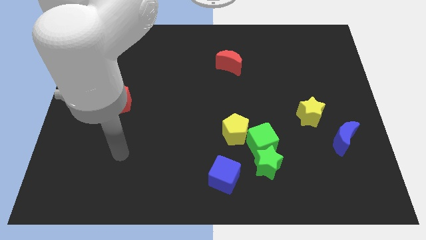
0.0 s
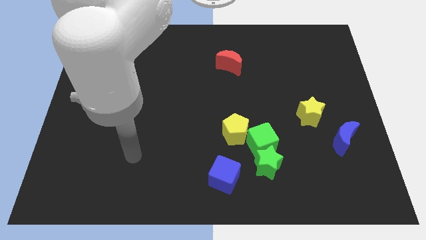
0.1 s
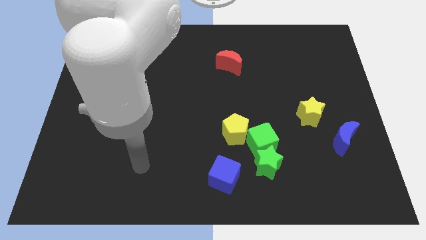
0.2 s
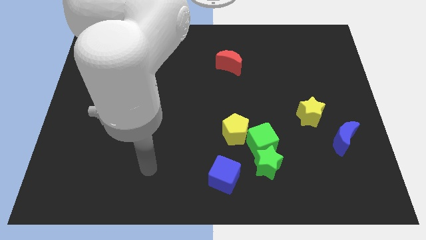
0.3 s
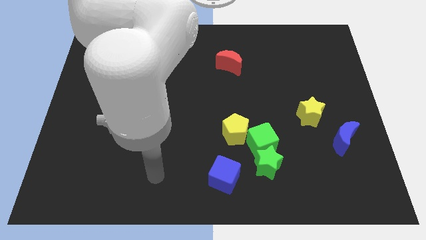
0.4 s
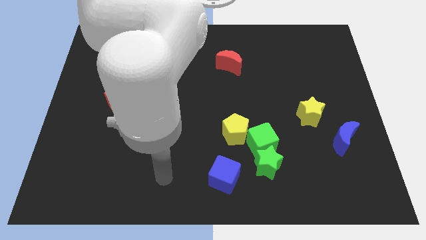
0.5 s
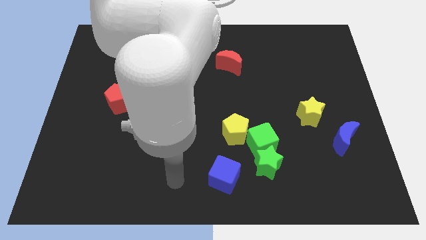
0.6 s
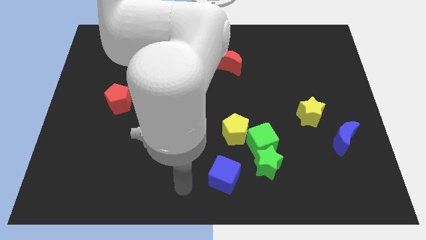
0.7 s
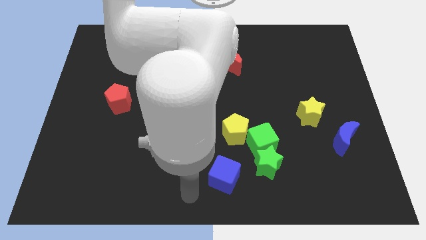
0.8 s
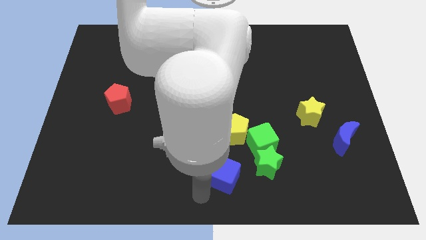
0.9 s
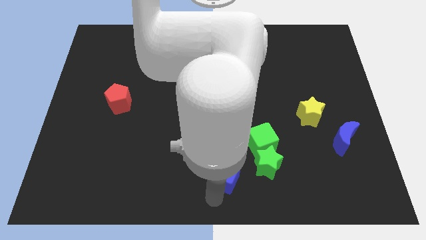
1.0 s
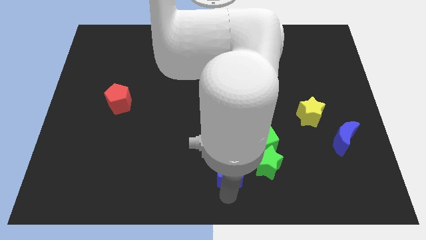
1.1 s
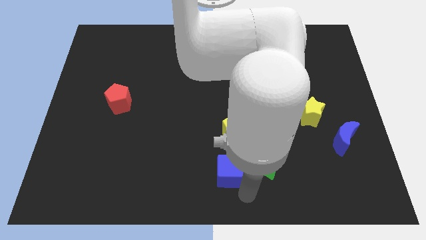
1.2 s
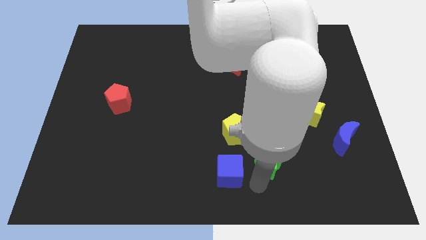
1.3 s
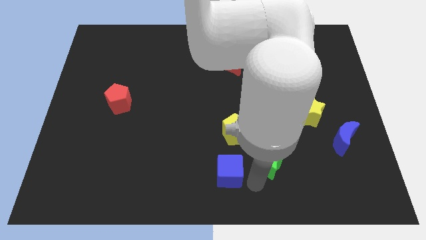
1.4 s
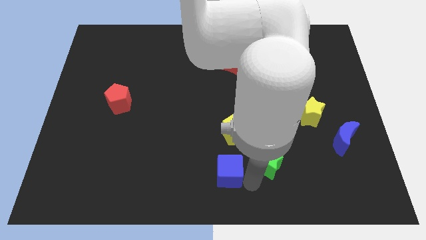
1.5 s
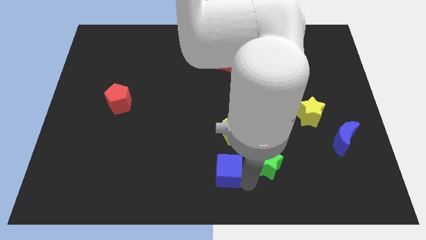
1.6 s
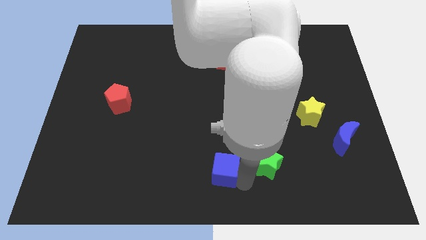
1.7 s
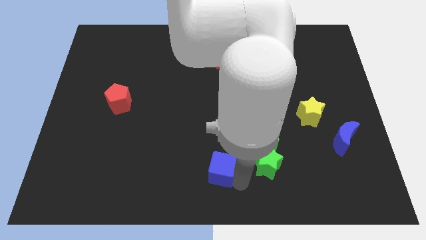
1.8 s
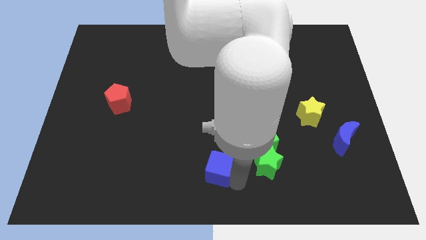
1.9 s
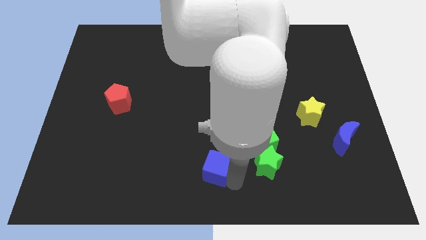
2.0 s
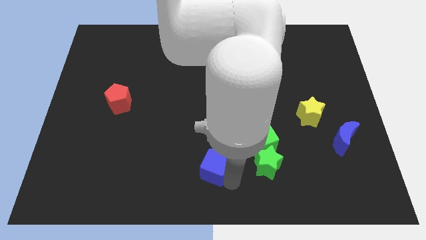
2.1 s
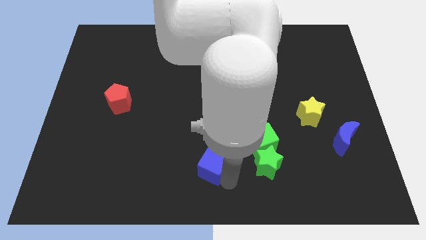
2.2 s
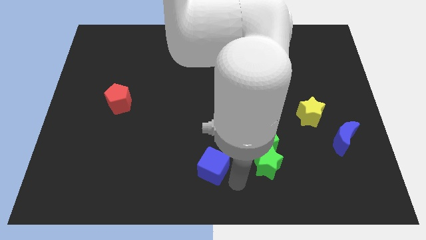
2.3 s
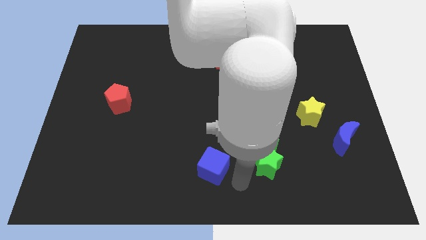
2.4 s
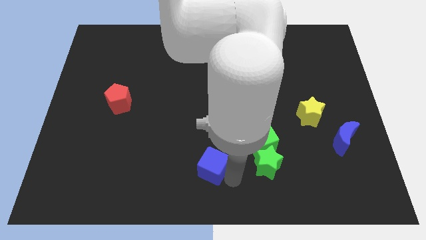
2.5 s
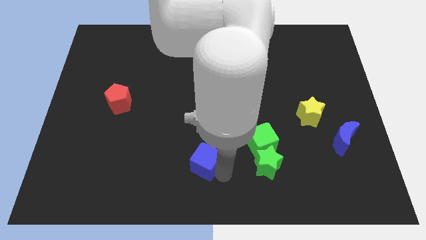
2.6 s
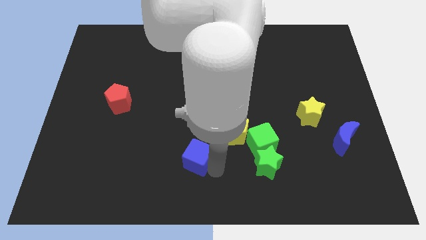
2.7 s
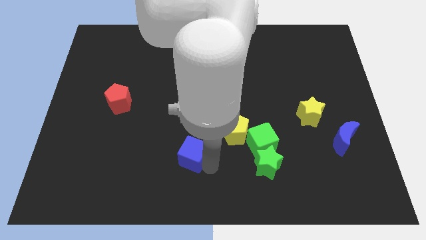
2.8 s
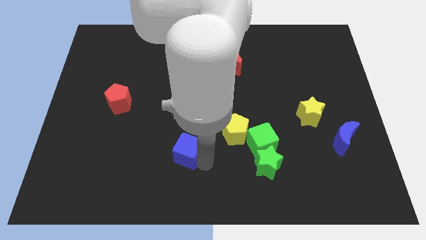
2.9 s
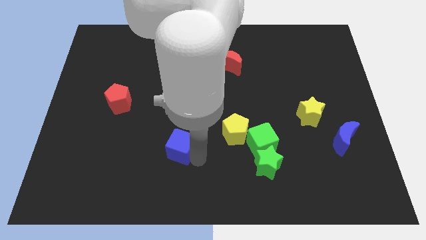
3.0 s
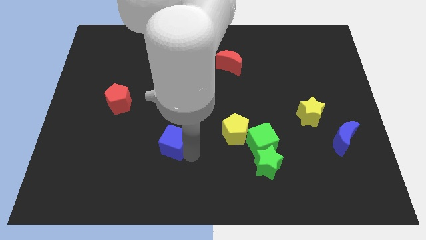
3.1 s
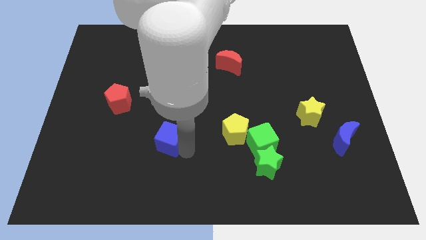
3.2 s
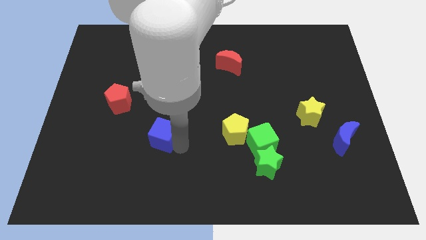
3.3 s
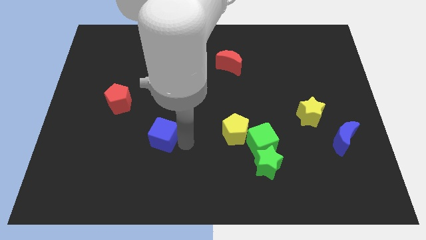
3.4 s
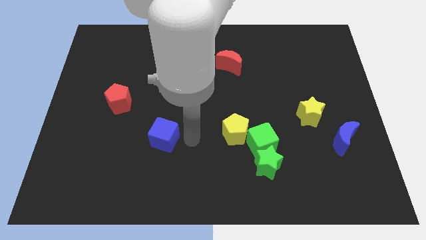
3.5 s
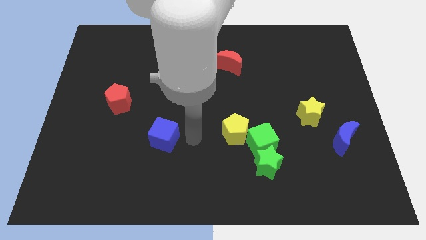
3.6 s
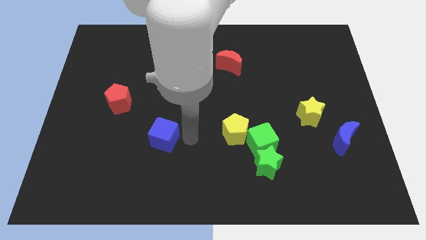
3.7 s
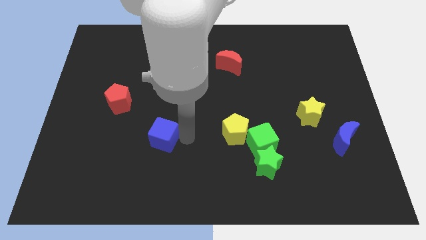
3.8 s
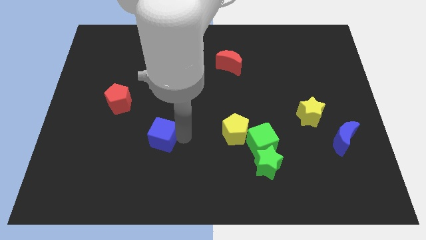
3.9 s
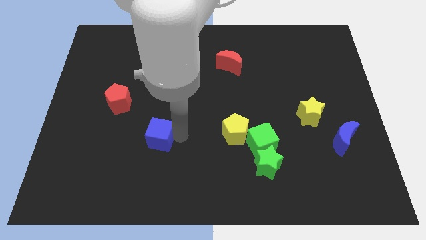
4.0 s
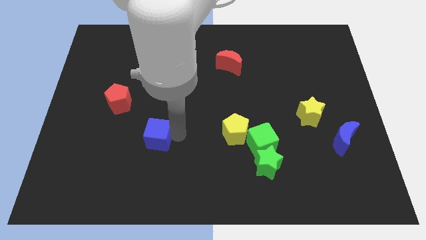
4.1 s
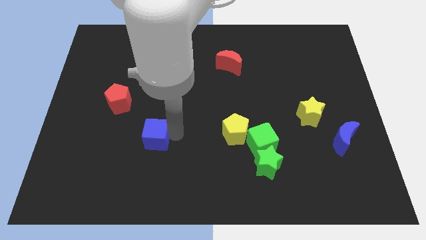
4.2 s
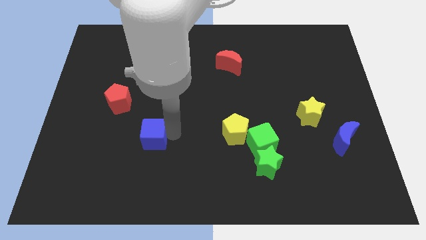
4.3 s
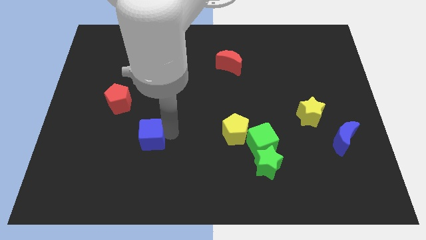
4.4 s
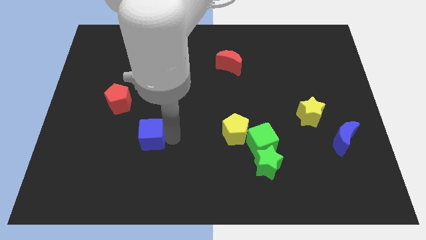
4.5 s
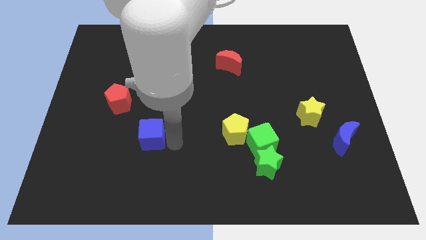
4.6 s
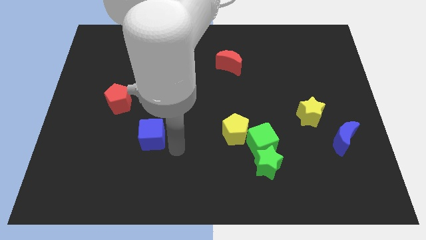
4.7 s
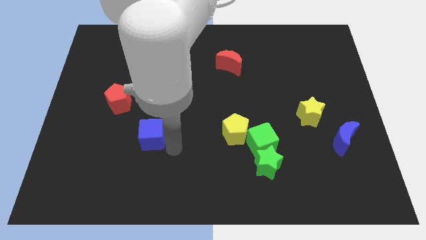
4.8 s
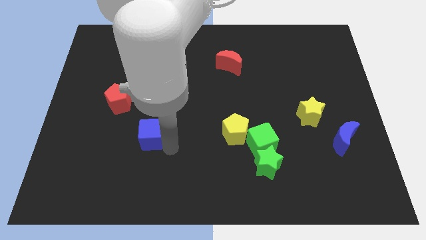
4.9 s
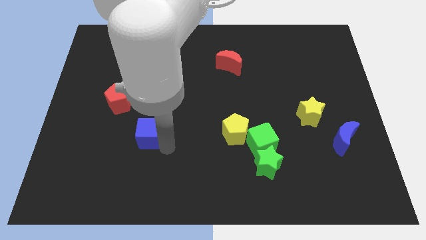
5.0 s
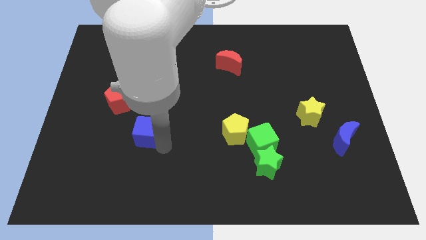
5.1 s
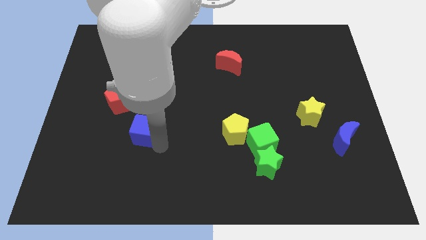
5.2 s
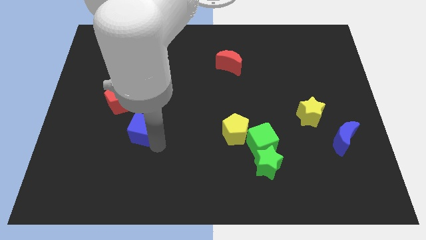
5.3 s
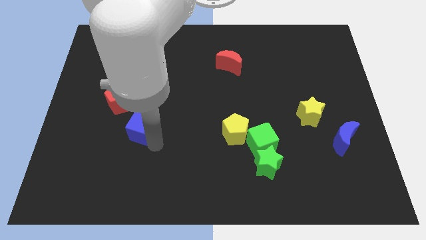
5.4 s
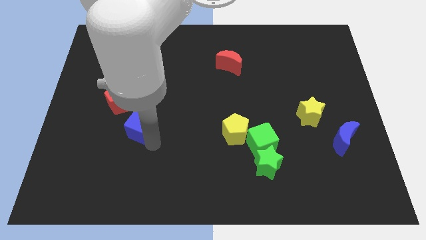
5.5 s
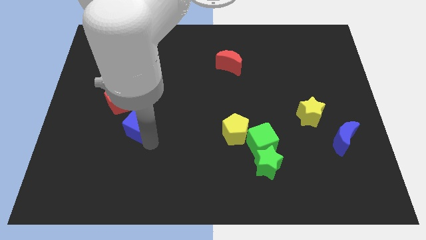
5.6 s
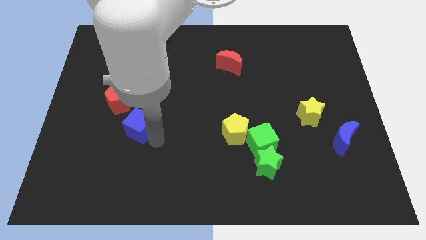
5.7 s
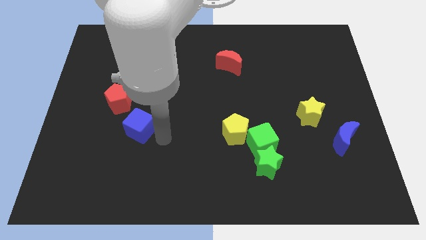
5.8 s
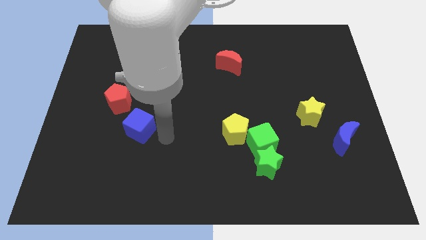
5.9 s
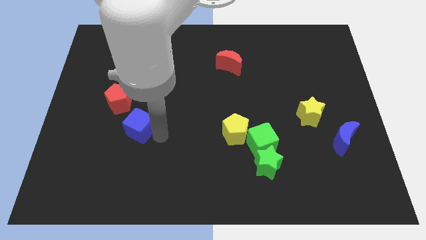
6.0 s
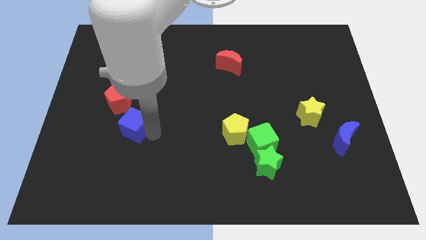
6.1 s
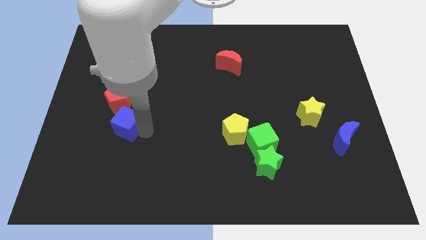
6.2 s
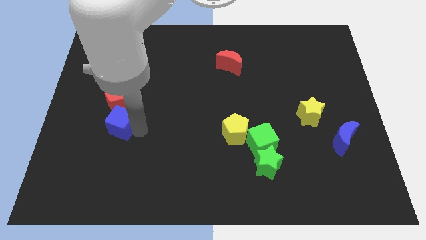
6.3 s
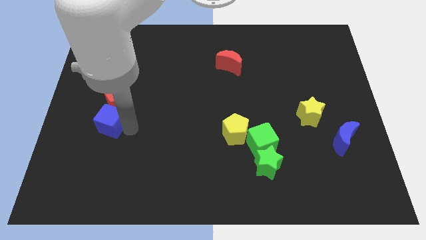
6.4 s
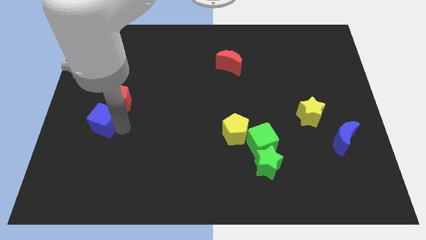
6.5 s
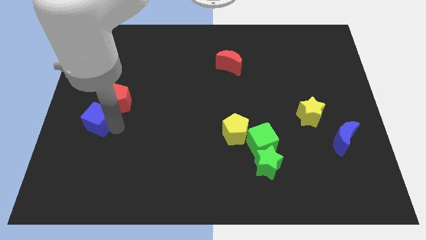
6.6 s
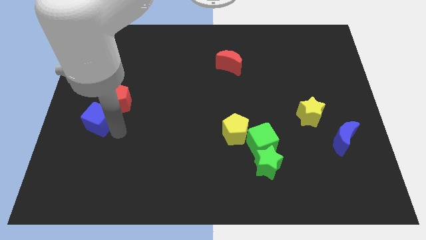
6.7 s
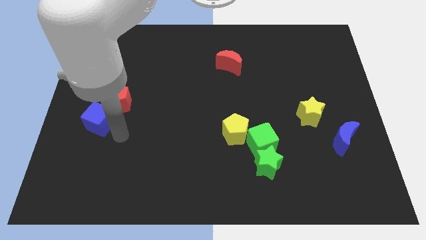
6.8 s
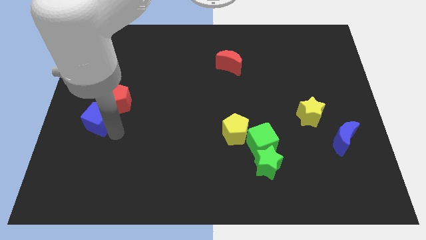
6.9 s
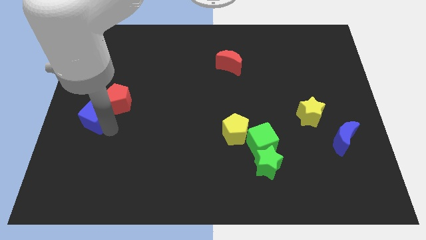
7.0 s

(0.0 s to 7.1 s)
put the blue cube to the left side of the board
